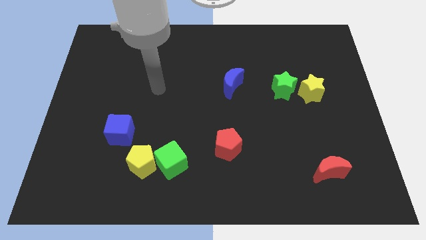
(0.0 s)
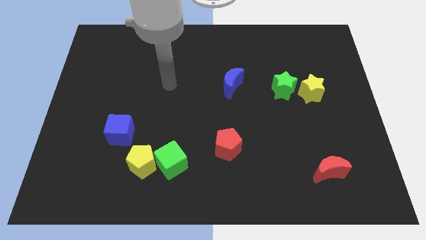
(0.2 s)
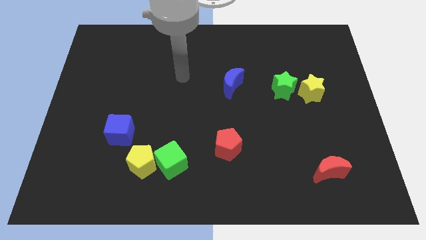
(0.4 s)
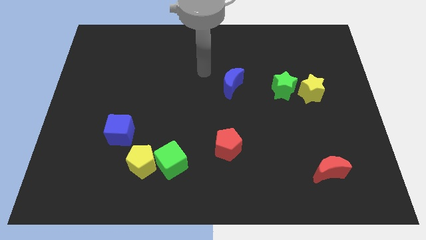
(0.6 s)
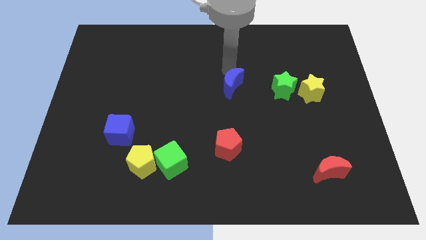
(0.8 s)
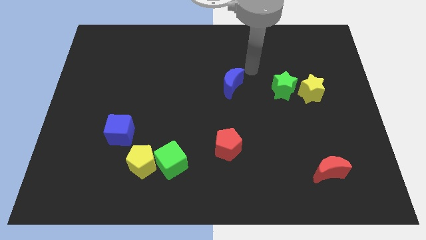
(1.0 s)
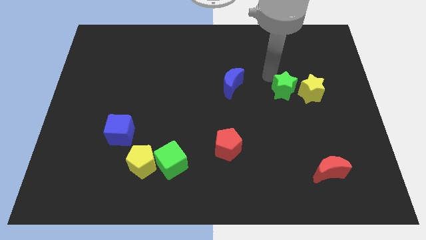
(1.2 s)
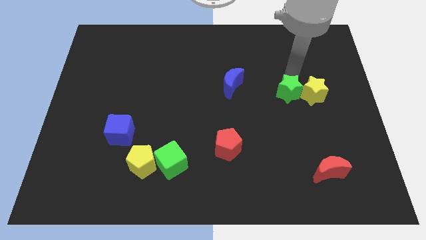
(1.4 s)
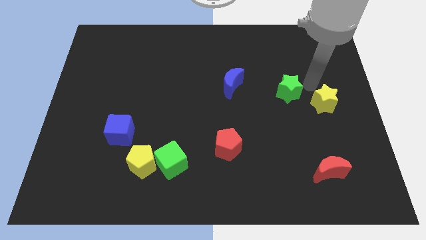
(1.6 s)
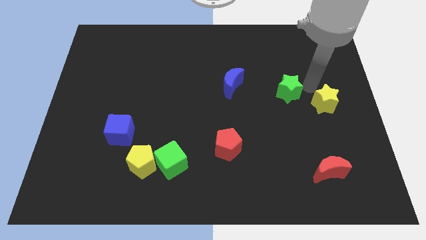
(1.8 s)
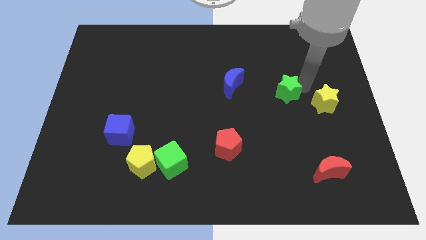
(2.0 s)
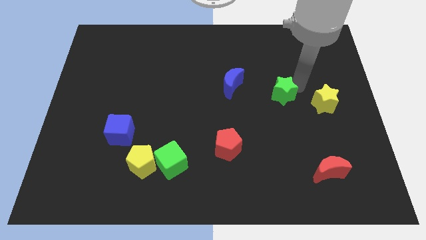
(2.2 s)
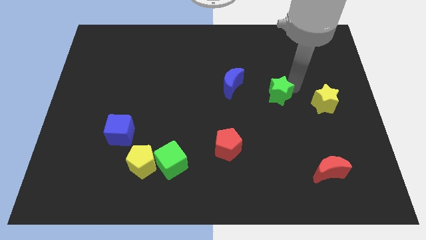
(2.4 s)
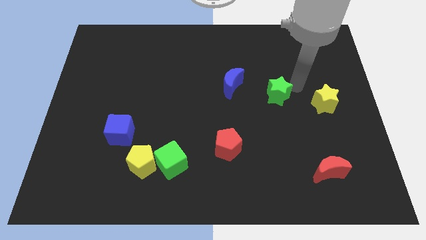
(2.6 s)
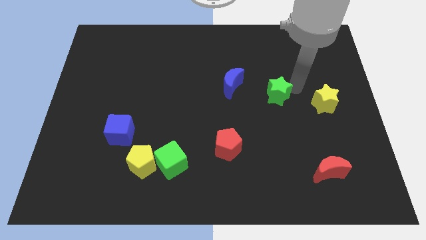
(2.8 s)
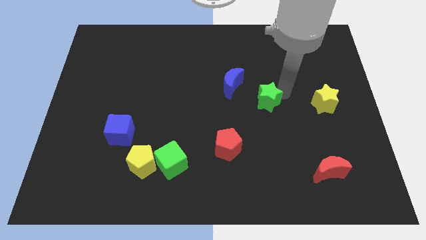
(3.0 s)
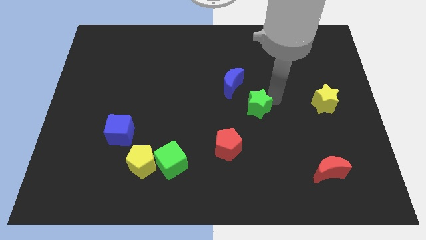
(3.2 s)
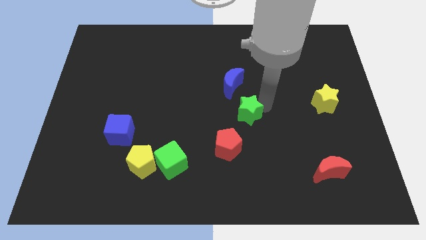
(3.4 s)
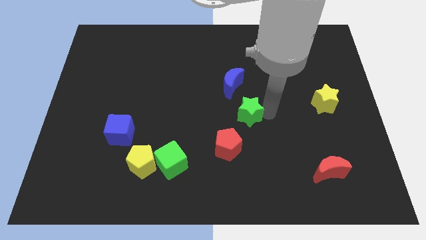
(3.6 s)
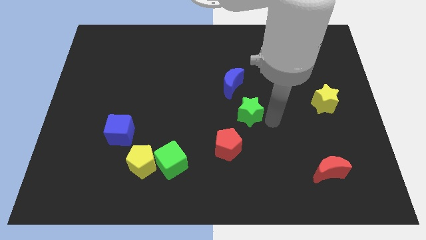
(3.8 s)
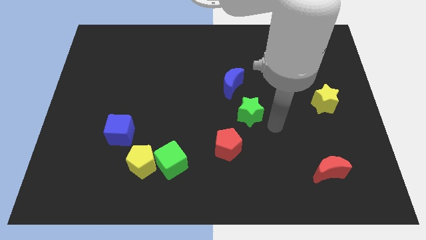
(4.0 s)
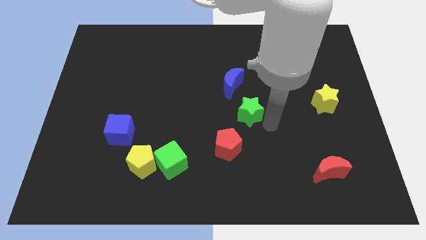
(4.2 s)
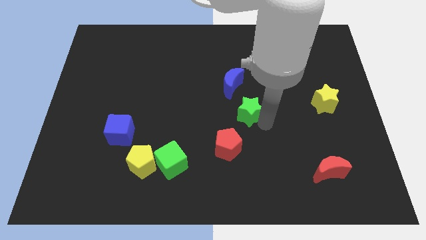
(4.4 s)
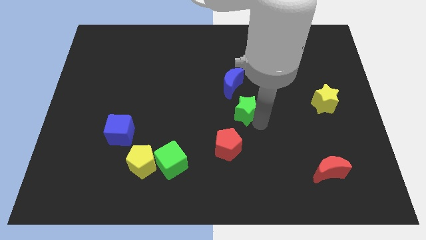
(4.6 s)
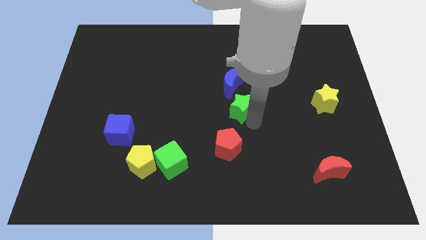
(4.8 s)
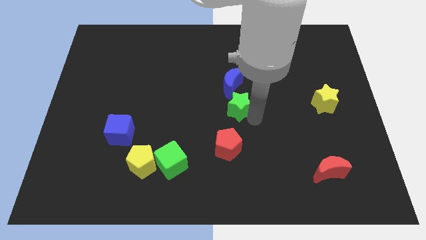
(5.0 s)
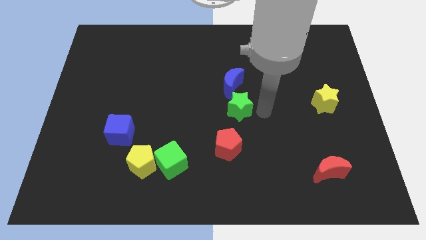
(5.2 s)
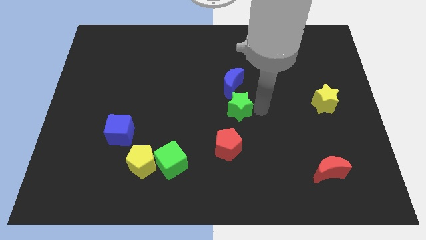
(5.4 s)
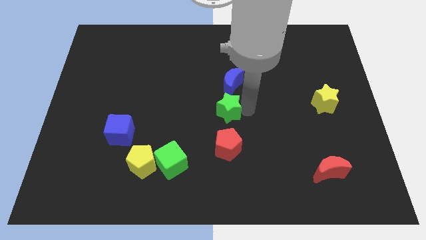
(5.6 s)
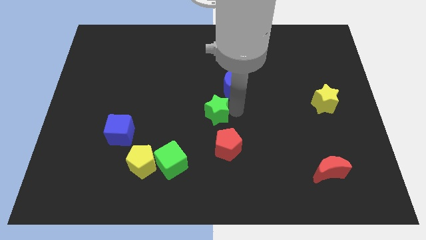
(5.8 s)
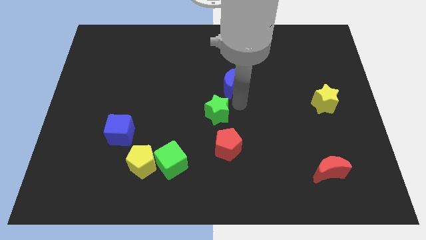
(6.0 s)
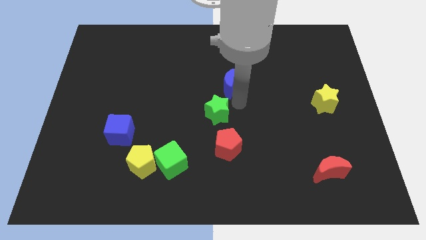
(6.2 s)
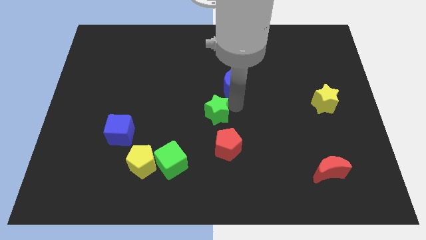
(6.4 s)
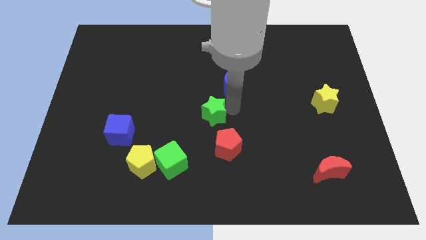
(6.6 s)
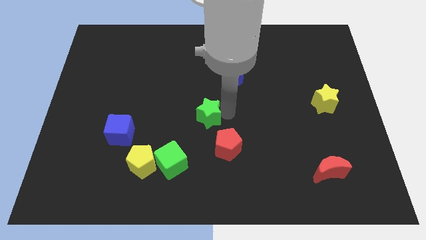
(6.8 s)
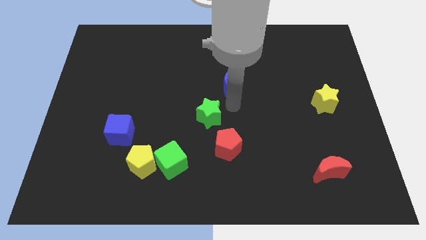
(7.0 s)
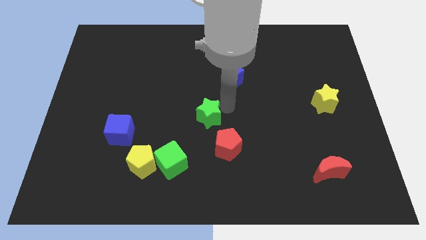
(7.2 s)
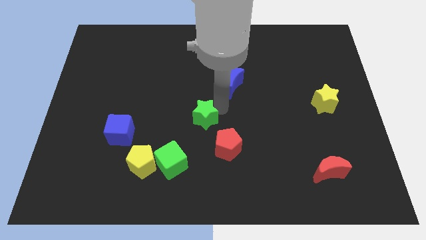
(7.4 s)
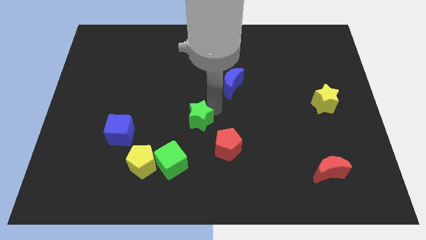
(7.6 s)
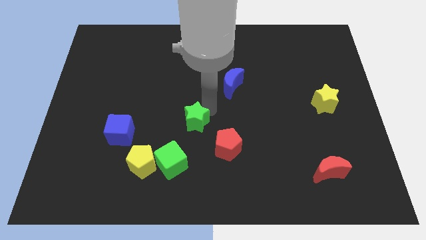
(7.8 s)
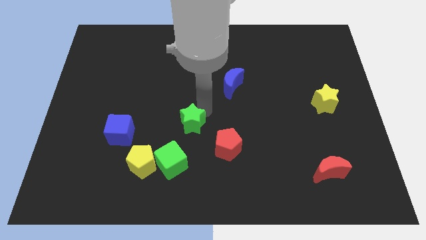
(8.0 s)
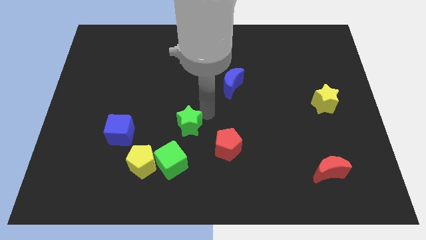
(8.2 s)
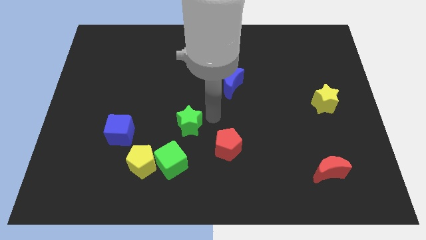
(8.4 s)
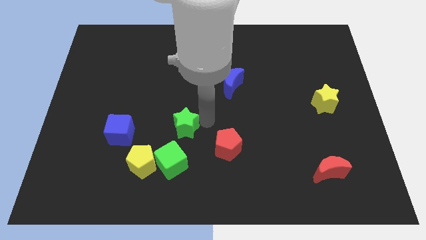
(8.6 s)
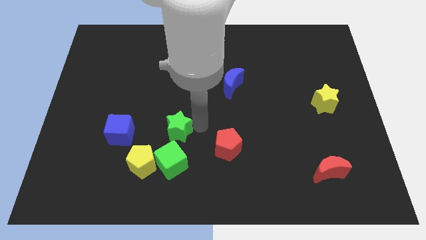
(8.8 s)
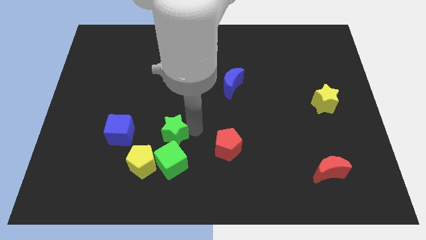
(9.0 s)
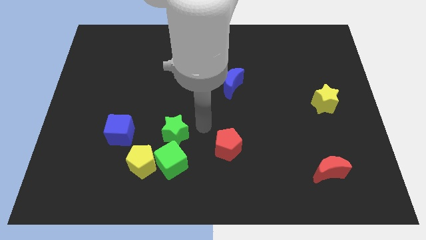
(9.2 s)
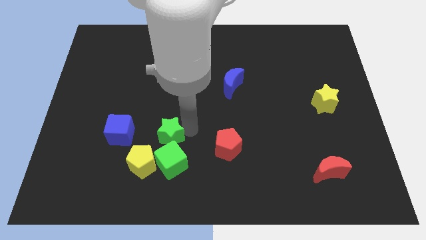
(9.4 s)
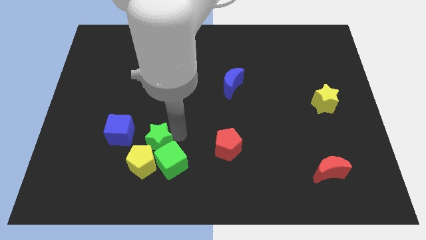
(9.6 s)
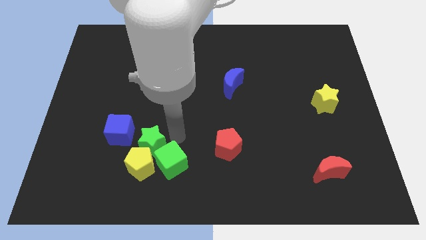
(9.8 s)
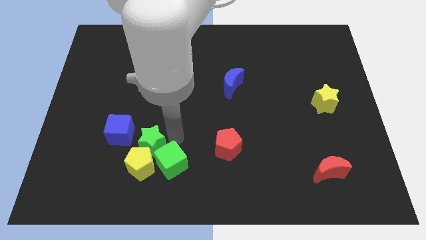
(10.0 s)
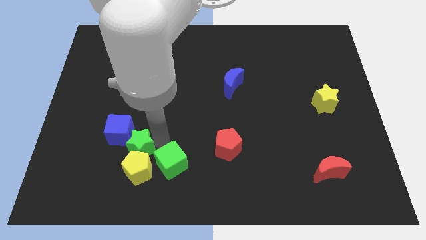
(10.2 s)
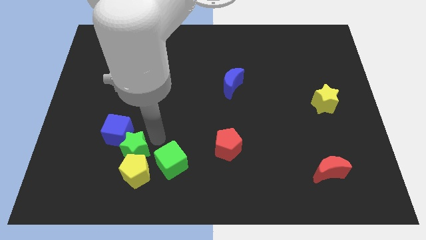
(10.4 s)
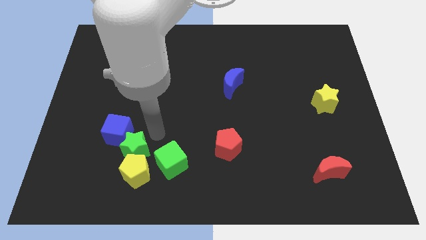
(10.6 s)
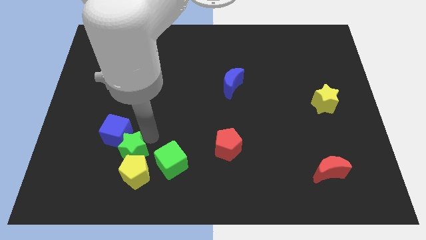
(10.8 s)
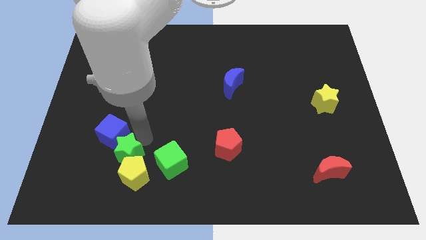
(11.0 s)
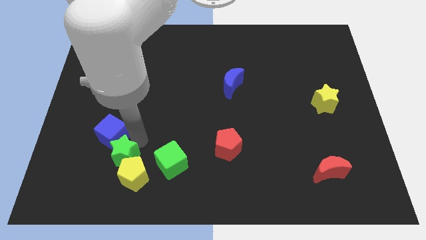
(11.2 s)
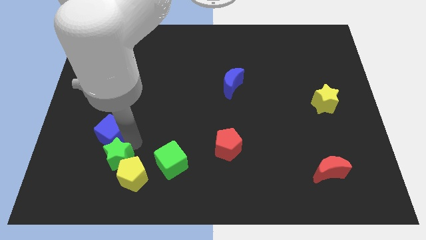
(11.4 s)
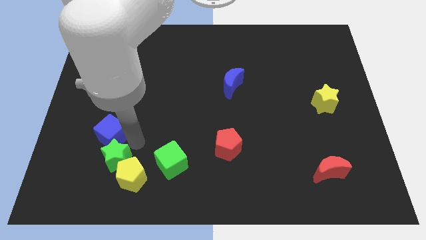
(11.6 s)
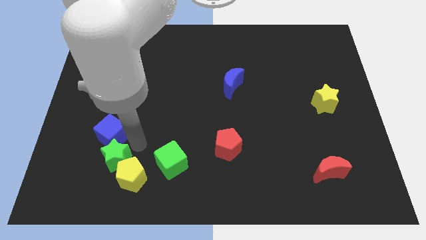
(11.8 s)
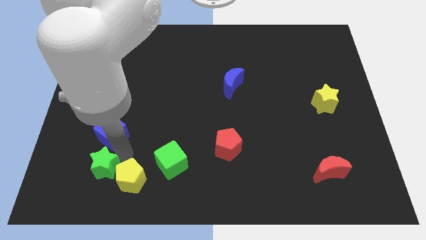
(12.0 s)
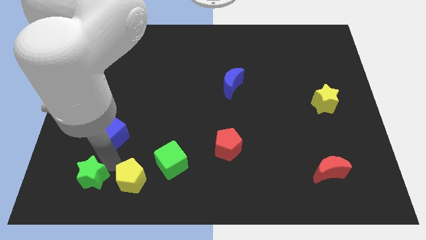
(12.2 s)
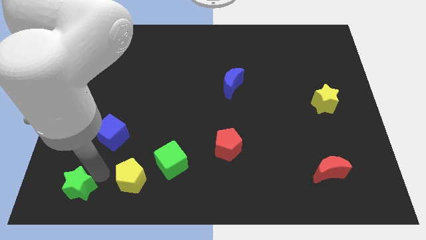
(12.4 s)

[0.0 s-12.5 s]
move the green star to the bottom left corner
